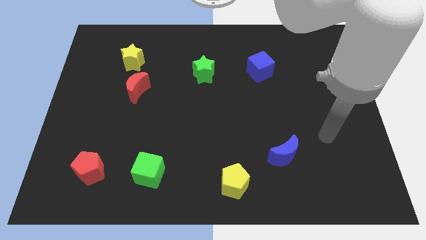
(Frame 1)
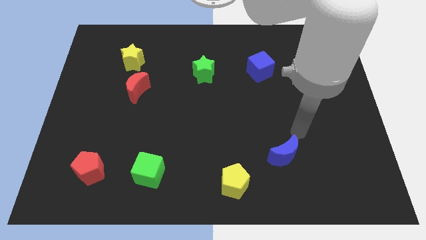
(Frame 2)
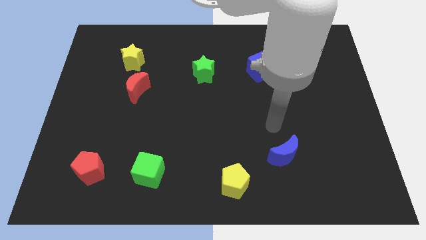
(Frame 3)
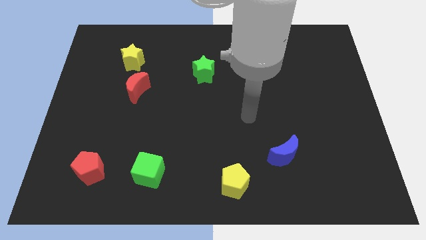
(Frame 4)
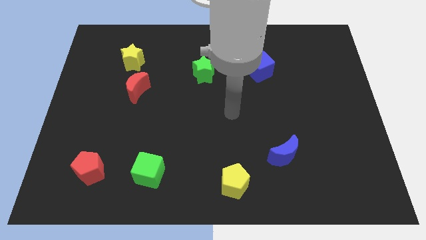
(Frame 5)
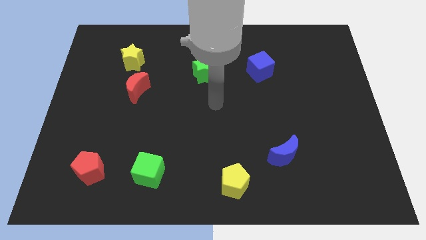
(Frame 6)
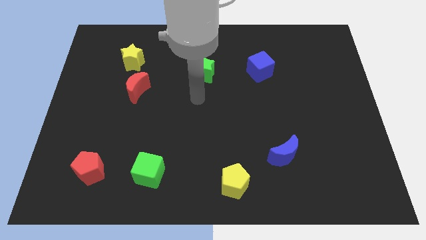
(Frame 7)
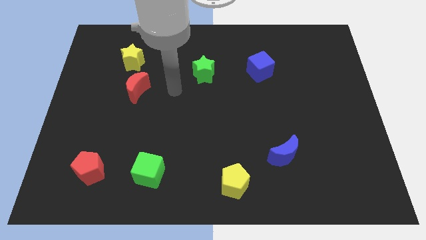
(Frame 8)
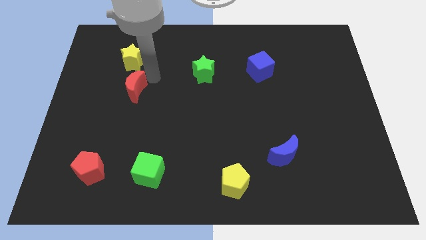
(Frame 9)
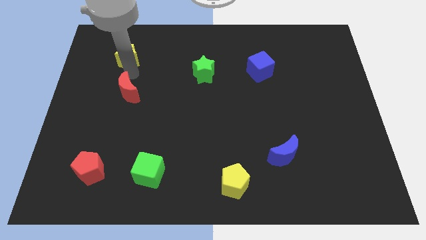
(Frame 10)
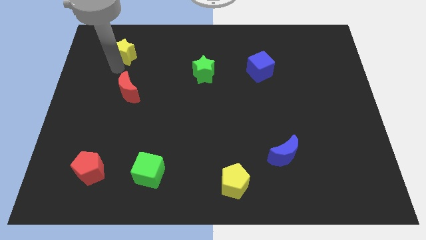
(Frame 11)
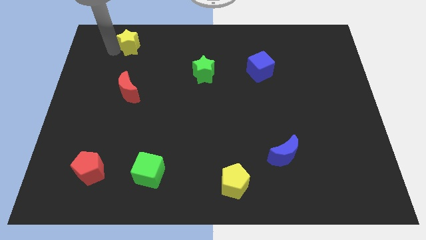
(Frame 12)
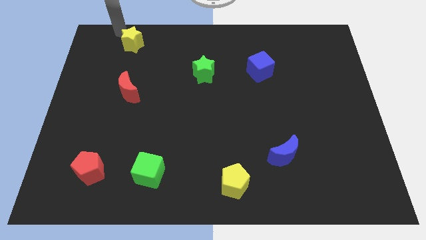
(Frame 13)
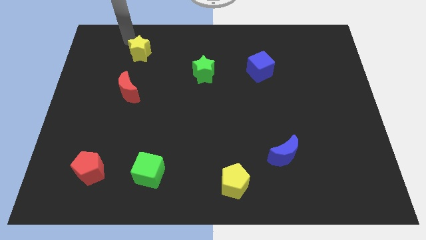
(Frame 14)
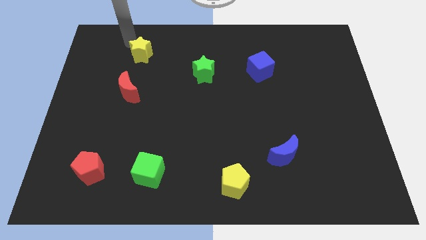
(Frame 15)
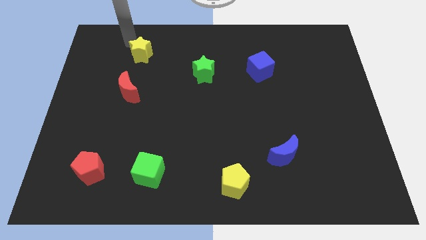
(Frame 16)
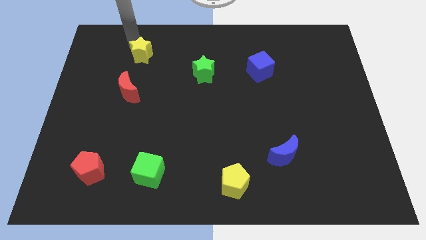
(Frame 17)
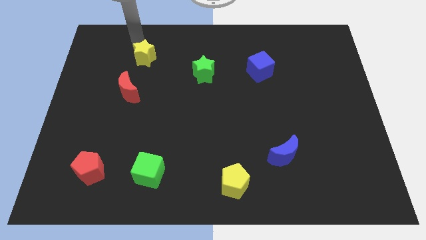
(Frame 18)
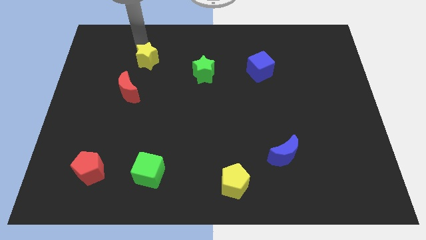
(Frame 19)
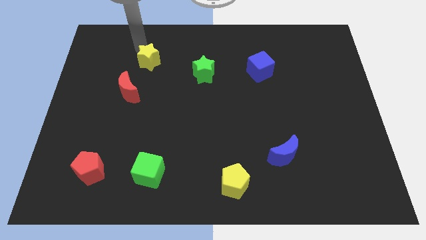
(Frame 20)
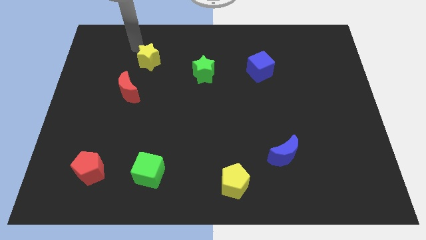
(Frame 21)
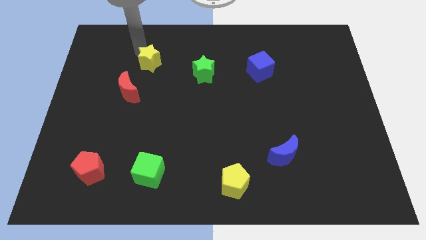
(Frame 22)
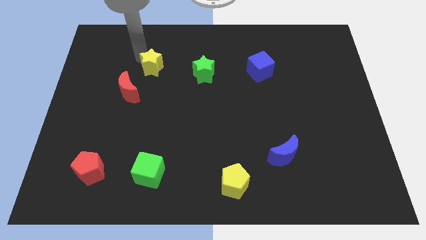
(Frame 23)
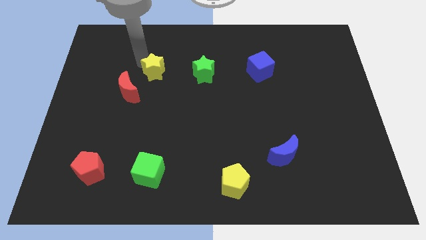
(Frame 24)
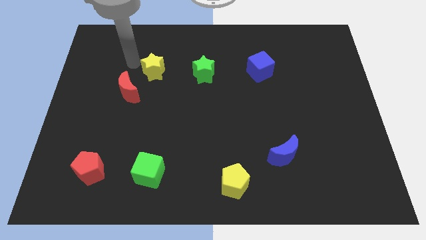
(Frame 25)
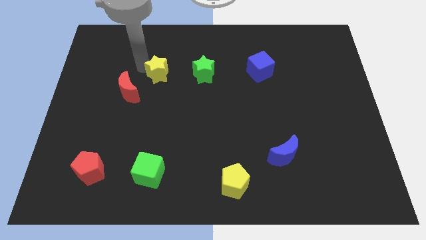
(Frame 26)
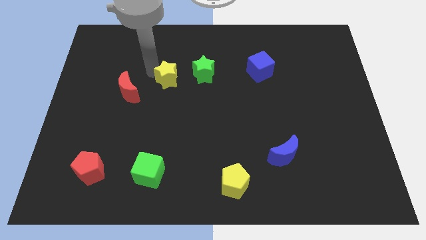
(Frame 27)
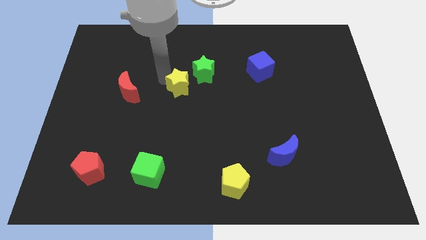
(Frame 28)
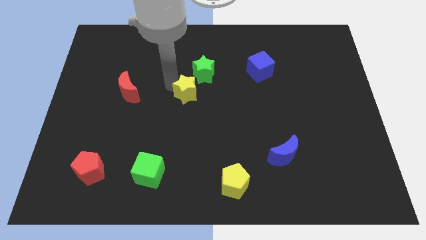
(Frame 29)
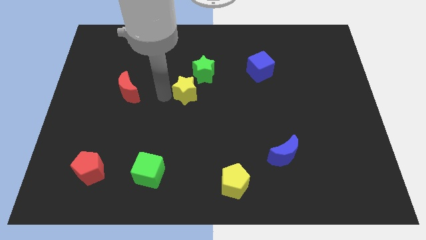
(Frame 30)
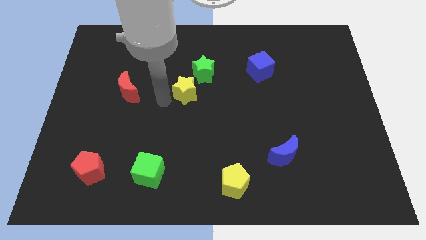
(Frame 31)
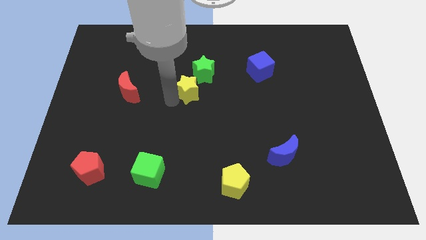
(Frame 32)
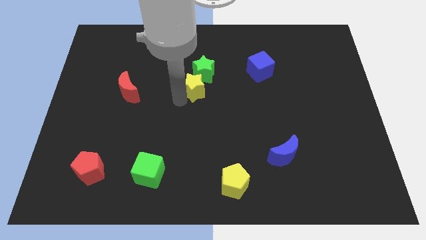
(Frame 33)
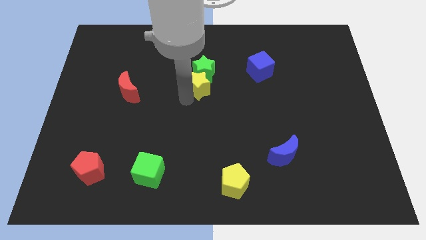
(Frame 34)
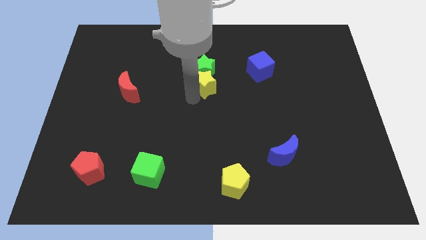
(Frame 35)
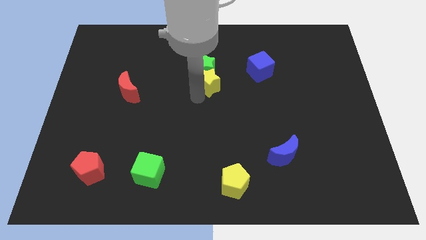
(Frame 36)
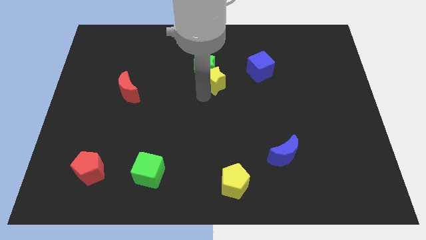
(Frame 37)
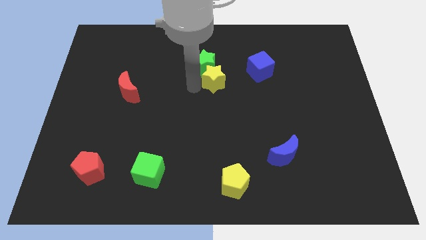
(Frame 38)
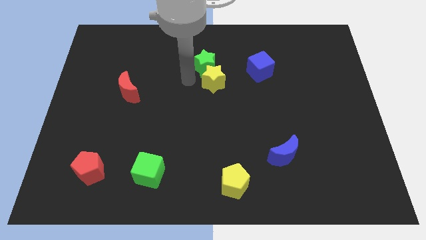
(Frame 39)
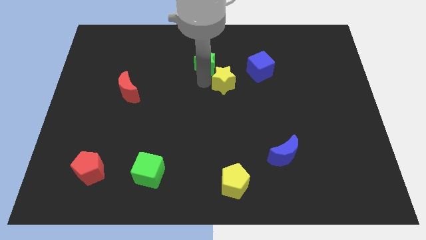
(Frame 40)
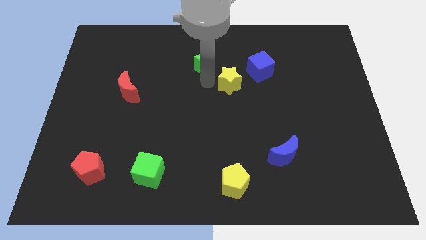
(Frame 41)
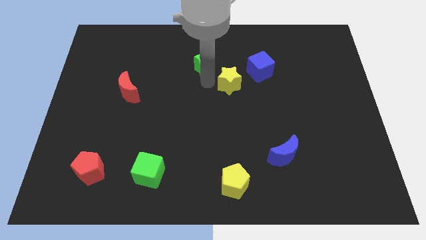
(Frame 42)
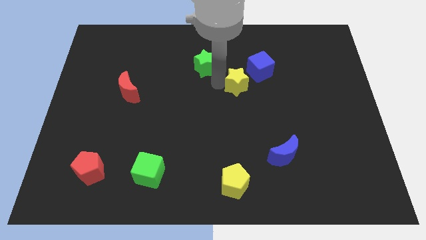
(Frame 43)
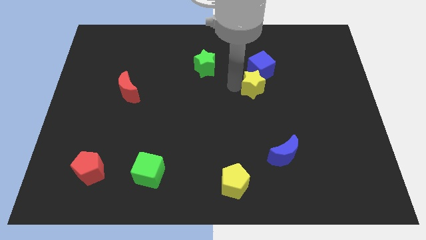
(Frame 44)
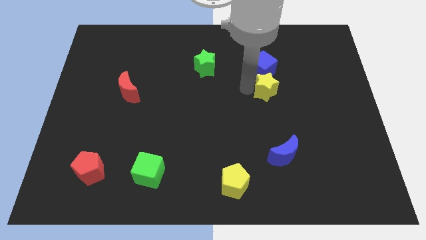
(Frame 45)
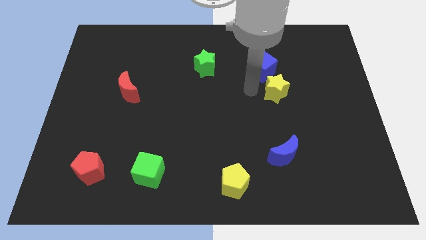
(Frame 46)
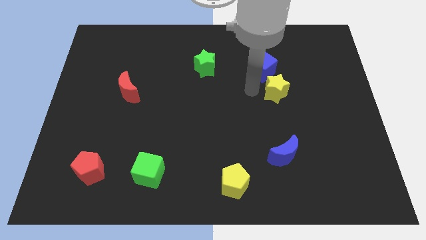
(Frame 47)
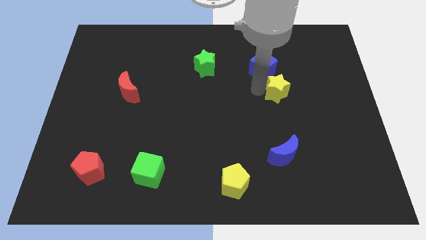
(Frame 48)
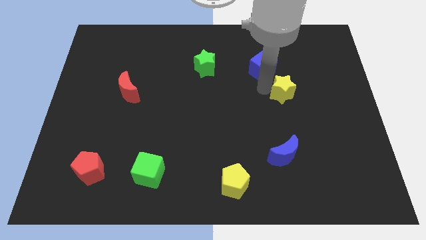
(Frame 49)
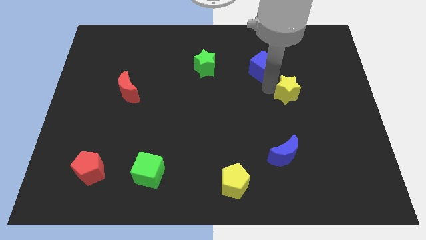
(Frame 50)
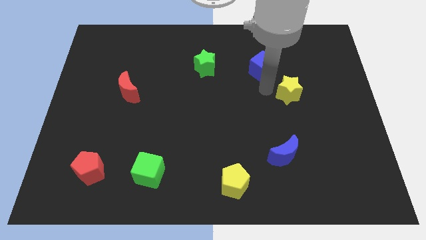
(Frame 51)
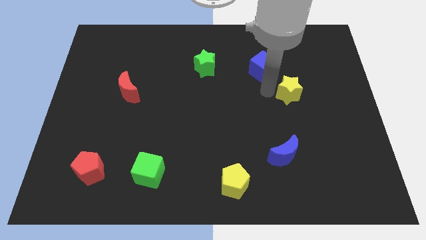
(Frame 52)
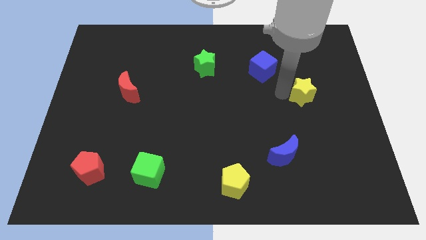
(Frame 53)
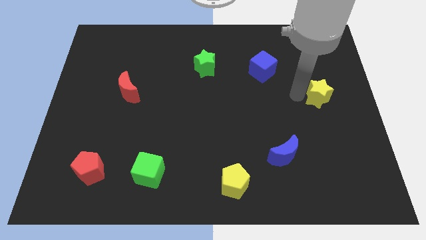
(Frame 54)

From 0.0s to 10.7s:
put the yellow star to the center right

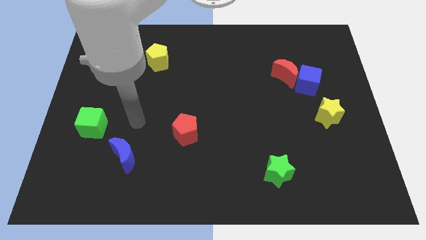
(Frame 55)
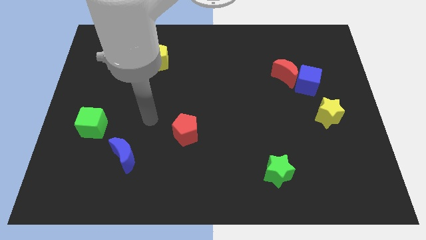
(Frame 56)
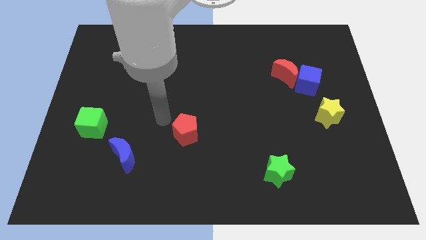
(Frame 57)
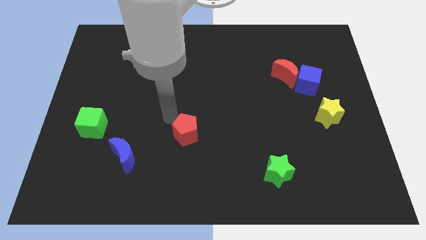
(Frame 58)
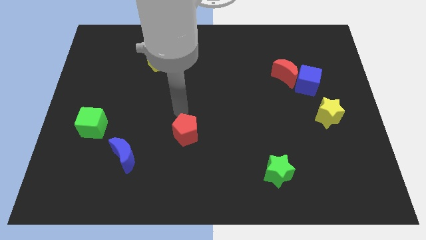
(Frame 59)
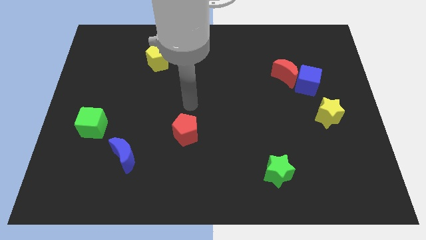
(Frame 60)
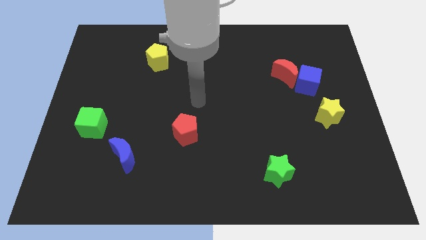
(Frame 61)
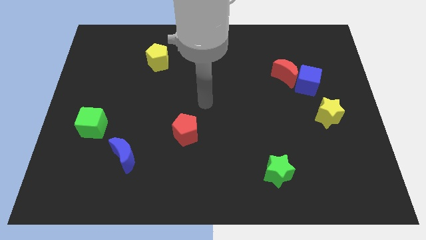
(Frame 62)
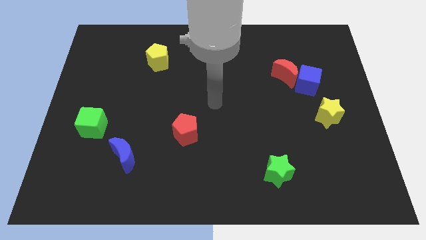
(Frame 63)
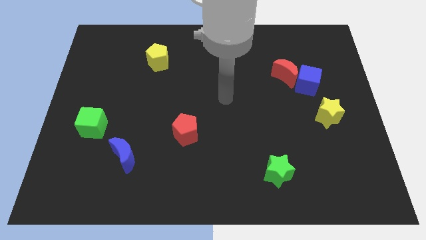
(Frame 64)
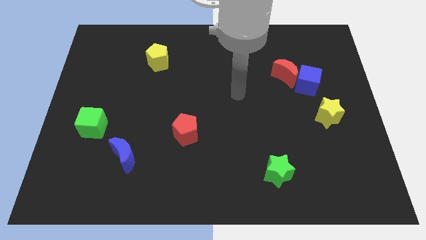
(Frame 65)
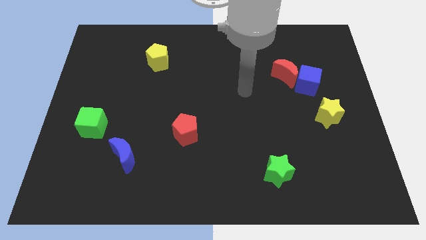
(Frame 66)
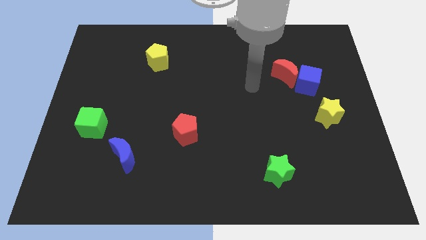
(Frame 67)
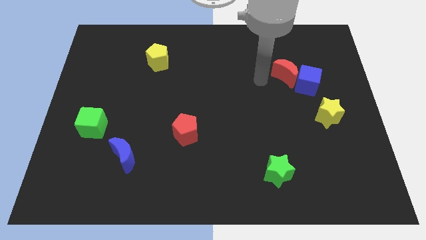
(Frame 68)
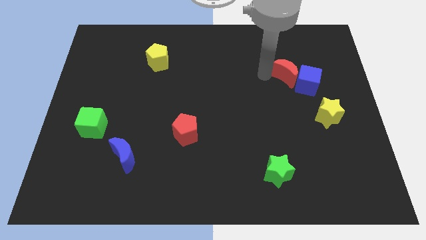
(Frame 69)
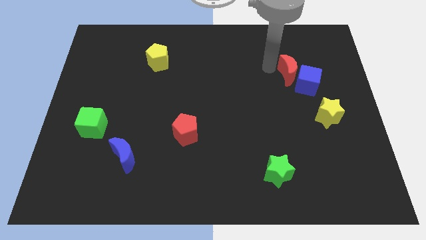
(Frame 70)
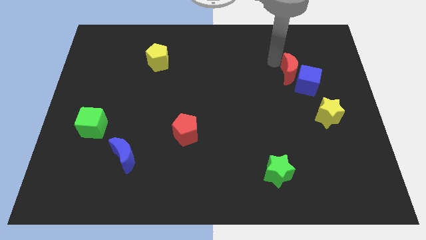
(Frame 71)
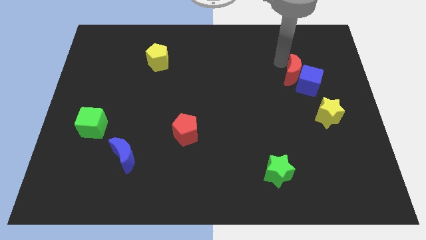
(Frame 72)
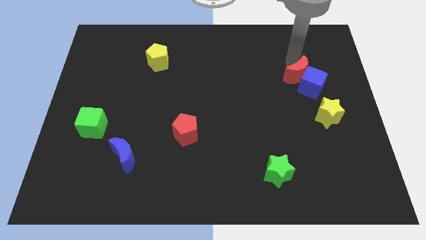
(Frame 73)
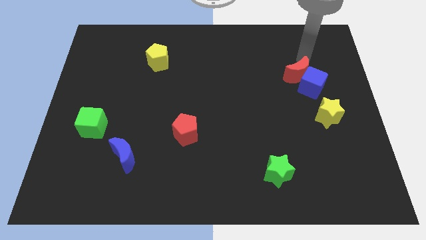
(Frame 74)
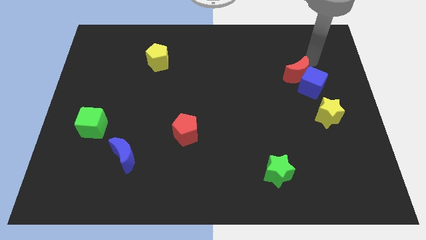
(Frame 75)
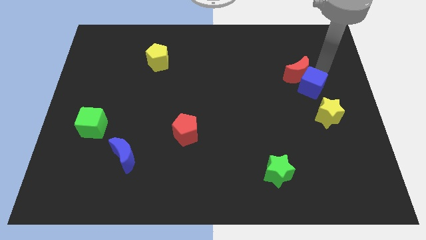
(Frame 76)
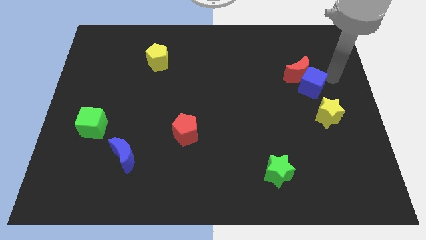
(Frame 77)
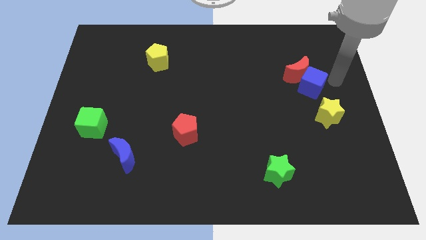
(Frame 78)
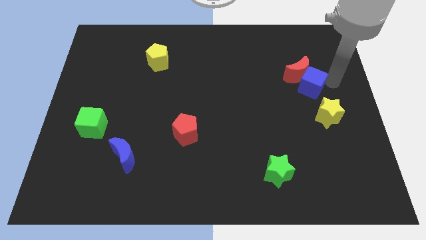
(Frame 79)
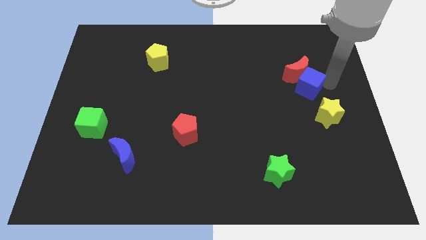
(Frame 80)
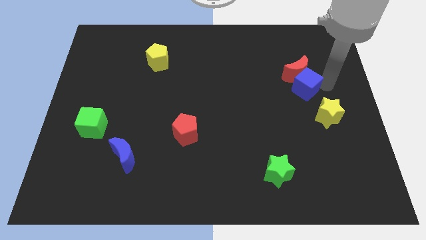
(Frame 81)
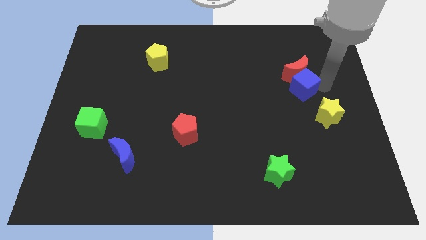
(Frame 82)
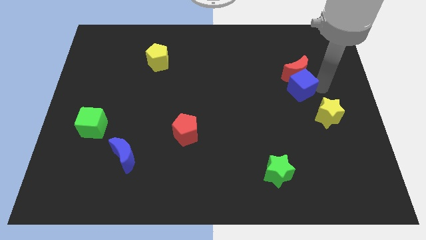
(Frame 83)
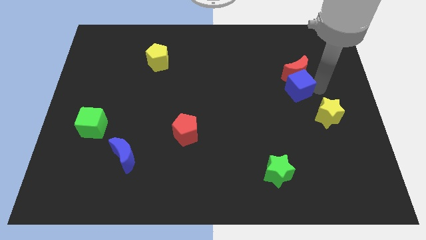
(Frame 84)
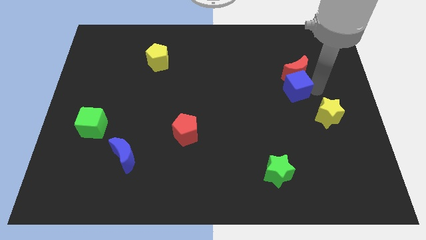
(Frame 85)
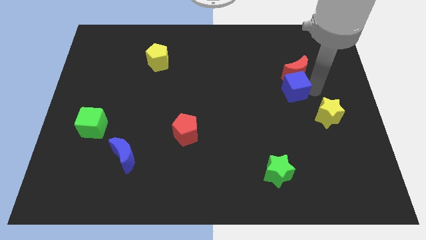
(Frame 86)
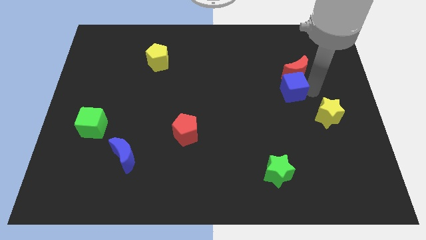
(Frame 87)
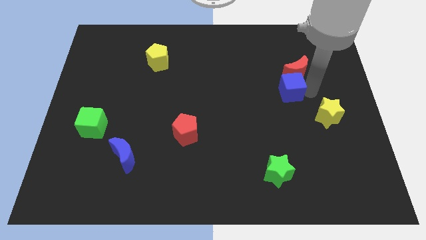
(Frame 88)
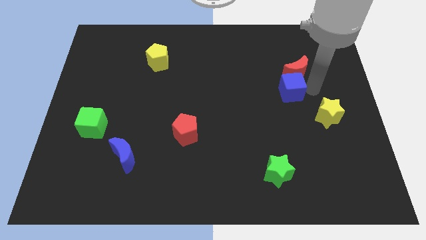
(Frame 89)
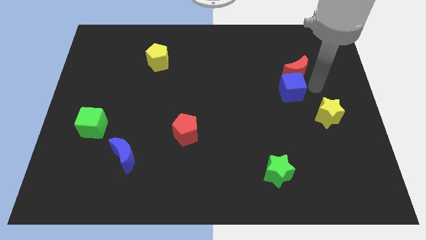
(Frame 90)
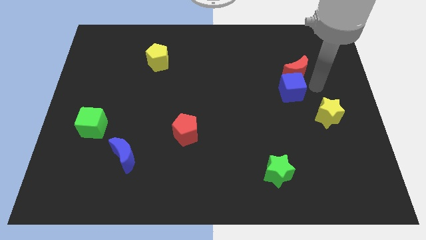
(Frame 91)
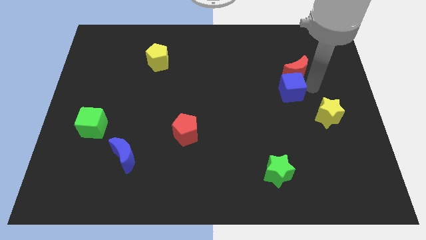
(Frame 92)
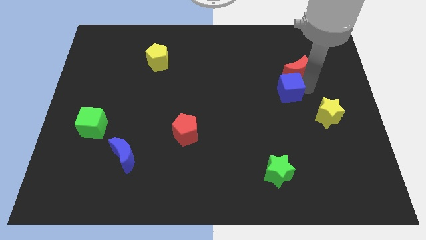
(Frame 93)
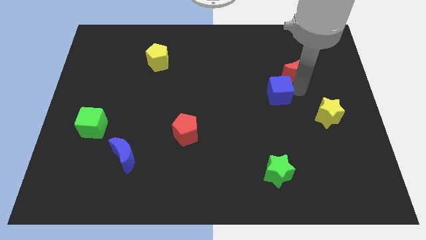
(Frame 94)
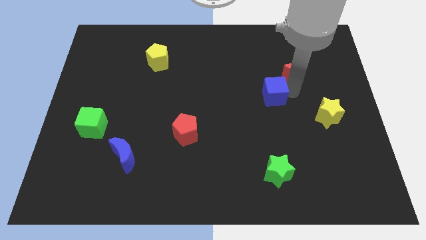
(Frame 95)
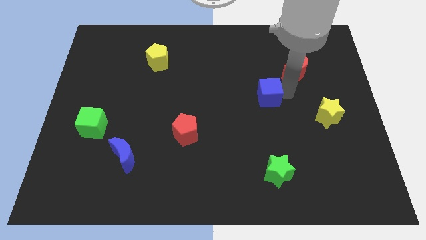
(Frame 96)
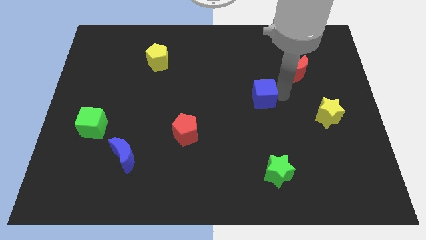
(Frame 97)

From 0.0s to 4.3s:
put the blue cube to the middle of the board
